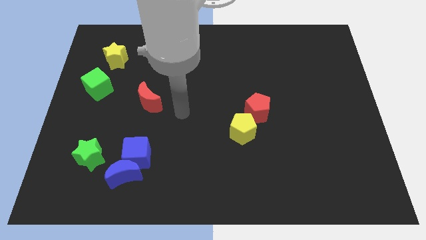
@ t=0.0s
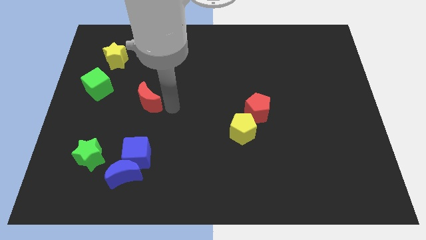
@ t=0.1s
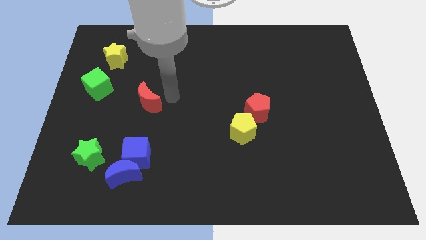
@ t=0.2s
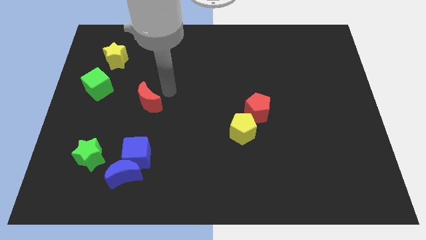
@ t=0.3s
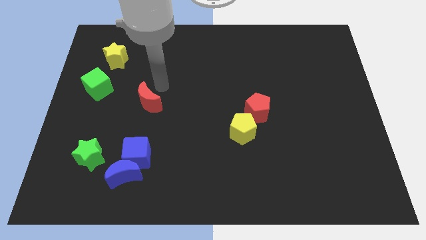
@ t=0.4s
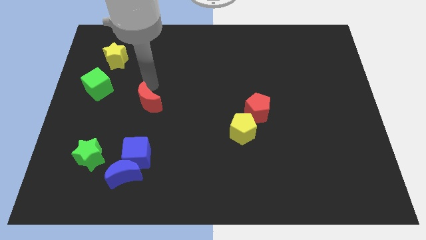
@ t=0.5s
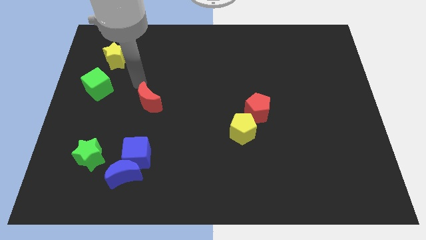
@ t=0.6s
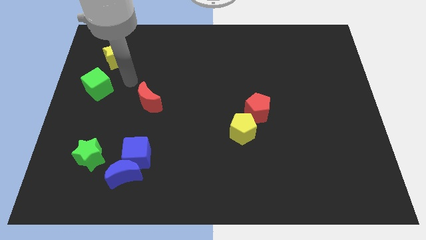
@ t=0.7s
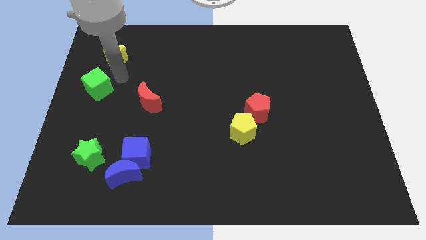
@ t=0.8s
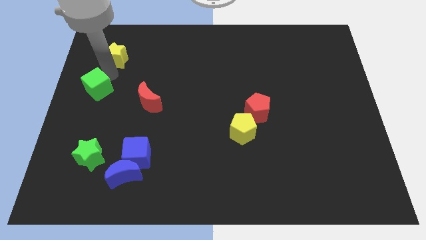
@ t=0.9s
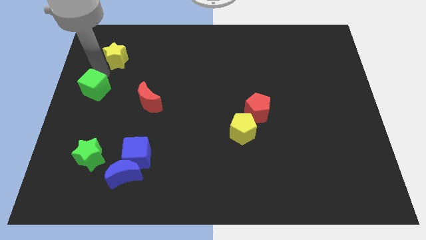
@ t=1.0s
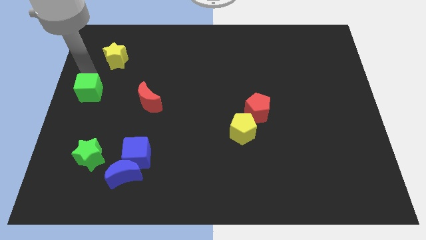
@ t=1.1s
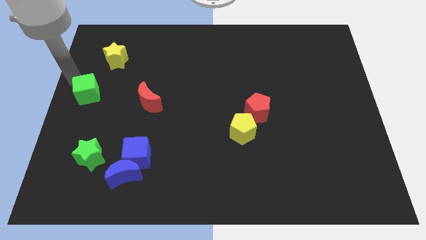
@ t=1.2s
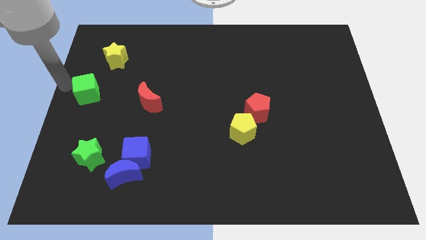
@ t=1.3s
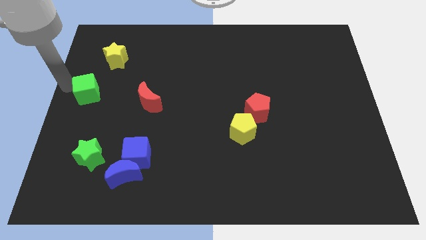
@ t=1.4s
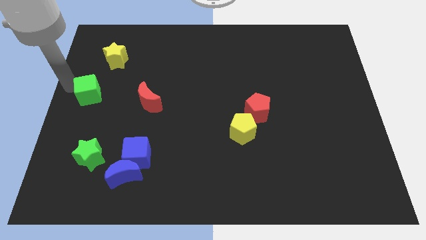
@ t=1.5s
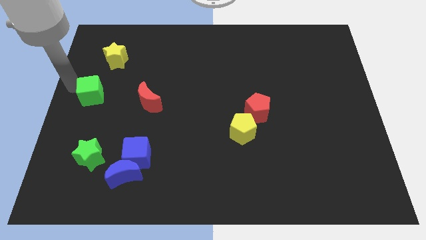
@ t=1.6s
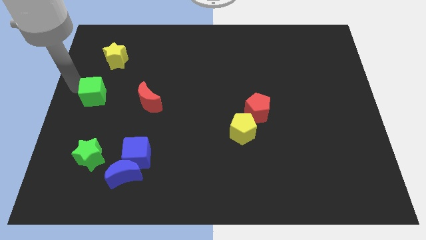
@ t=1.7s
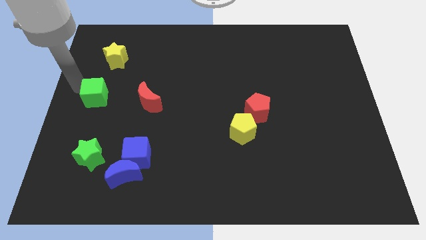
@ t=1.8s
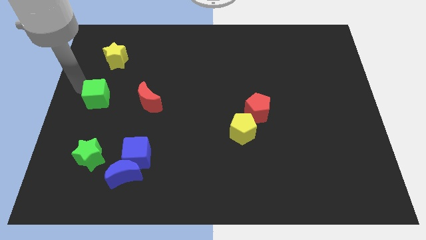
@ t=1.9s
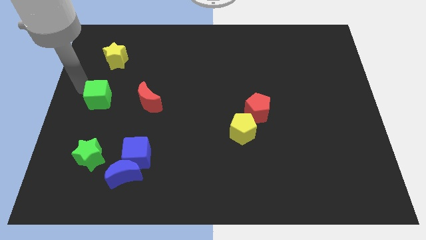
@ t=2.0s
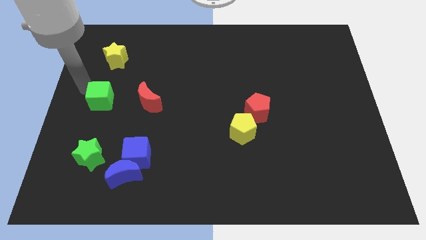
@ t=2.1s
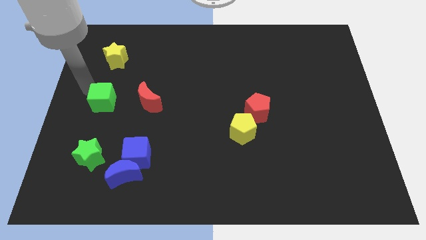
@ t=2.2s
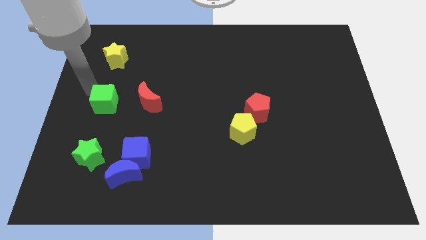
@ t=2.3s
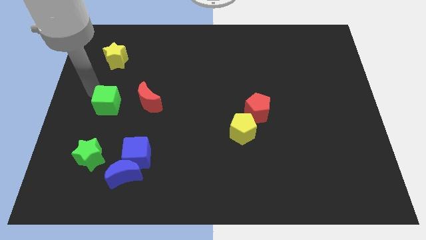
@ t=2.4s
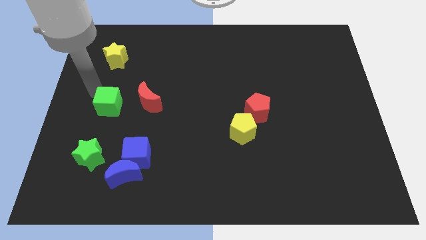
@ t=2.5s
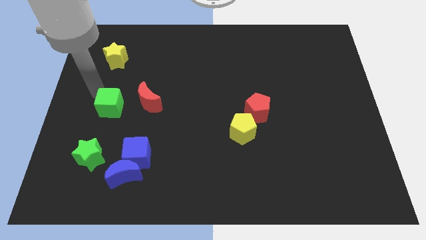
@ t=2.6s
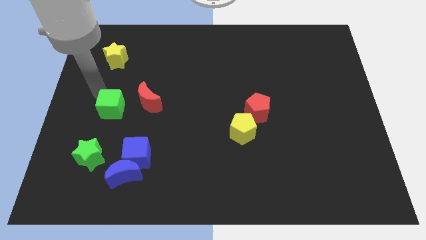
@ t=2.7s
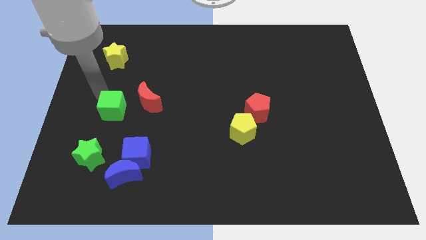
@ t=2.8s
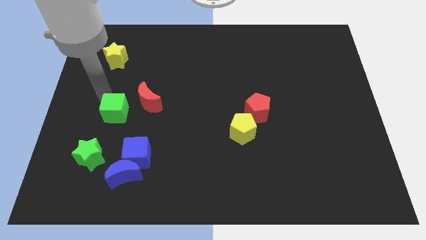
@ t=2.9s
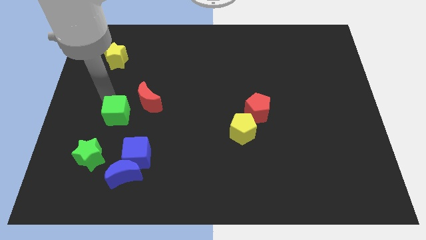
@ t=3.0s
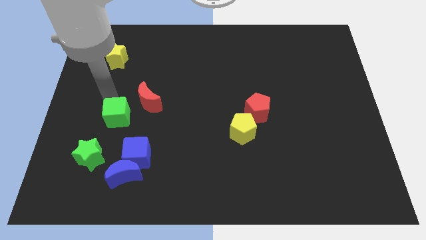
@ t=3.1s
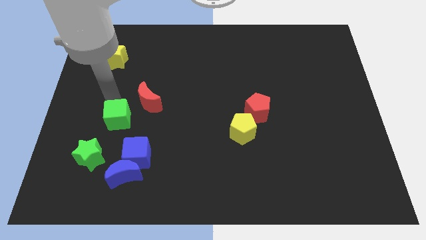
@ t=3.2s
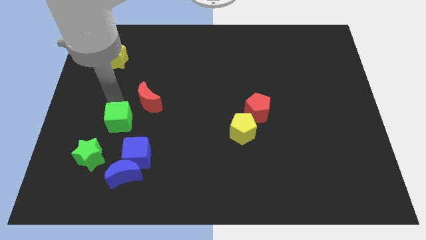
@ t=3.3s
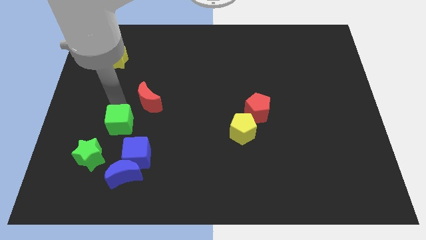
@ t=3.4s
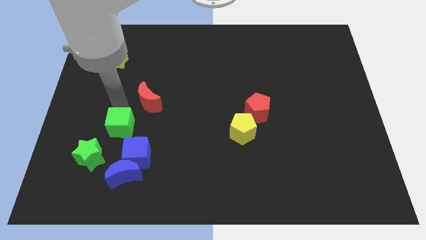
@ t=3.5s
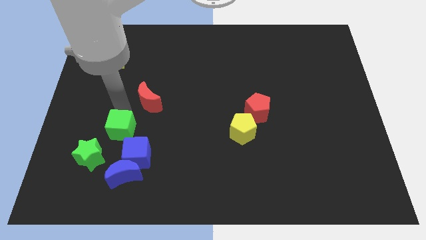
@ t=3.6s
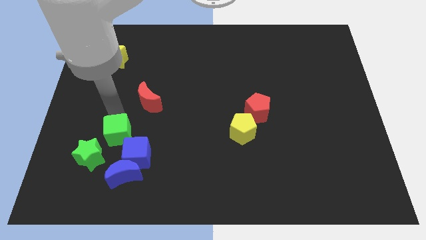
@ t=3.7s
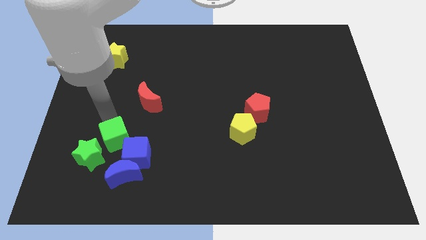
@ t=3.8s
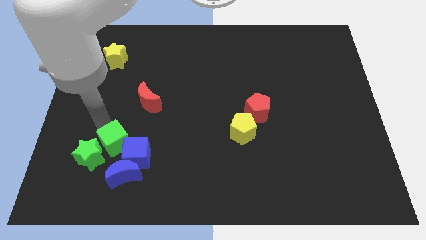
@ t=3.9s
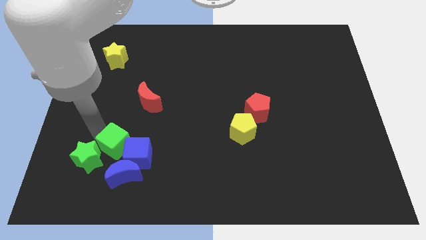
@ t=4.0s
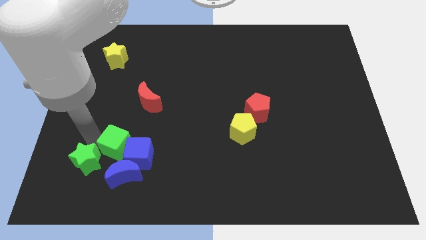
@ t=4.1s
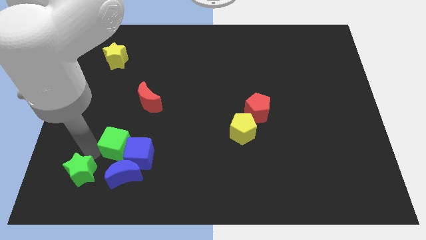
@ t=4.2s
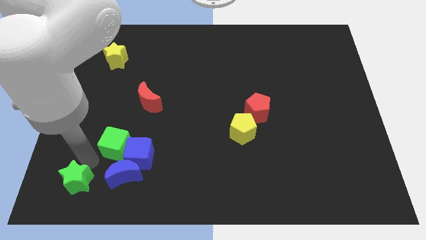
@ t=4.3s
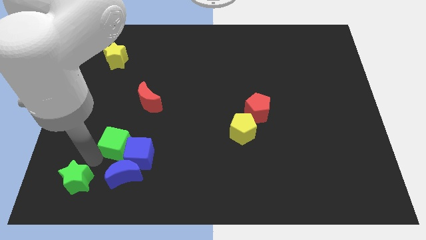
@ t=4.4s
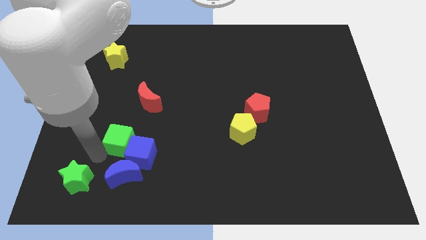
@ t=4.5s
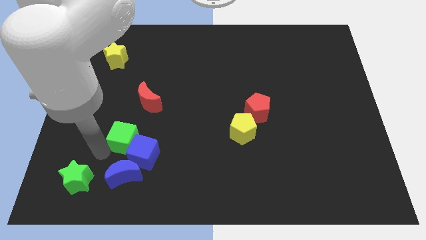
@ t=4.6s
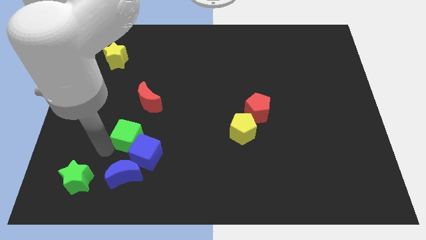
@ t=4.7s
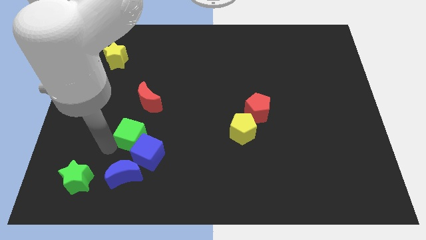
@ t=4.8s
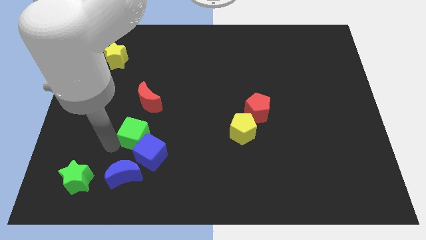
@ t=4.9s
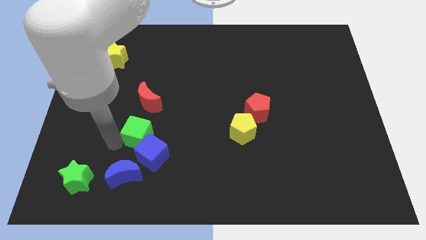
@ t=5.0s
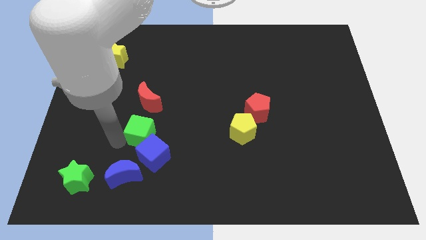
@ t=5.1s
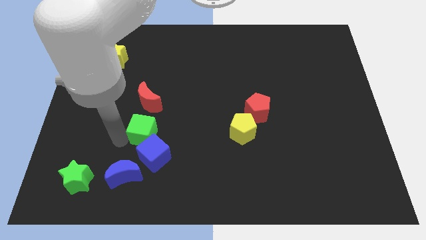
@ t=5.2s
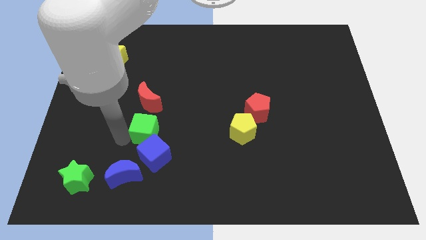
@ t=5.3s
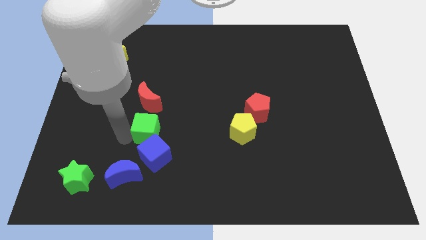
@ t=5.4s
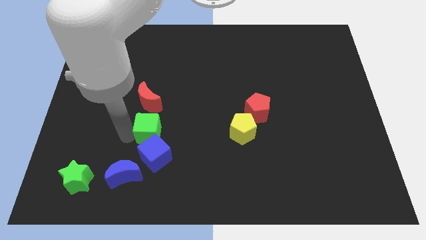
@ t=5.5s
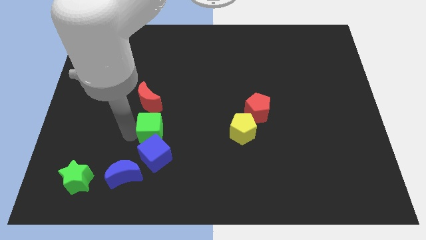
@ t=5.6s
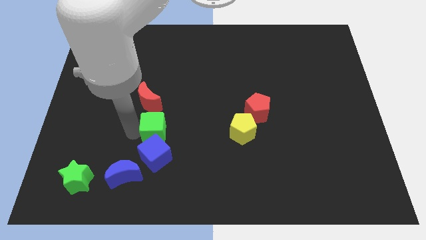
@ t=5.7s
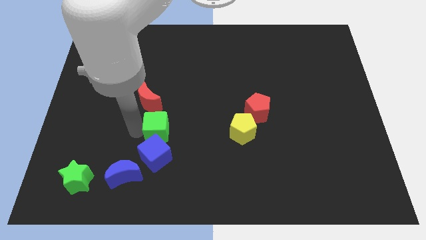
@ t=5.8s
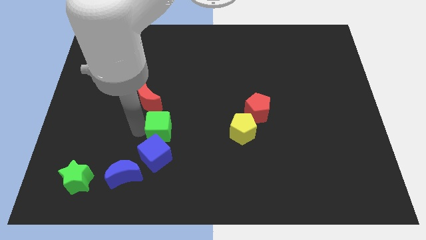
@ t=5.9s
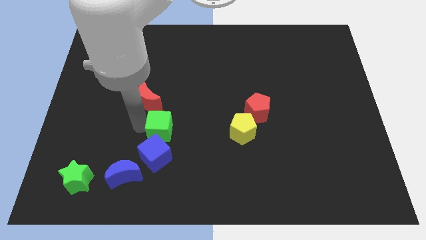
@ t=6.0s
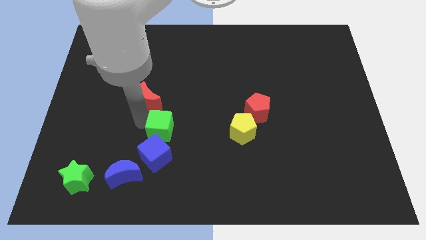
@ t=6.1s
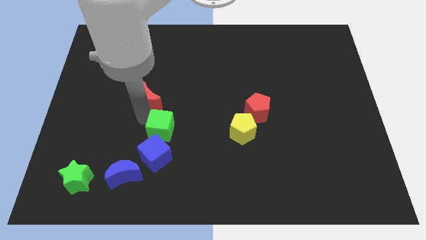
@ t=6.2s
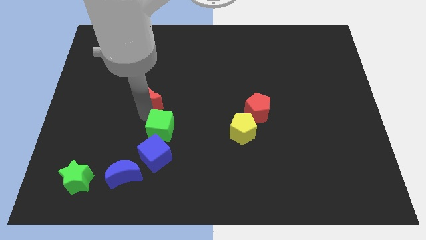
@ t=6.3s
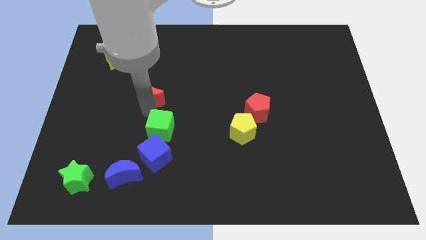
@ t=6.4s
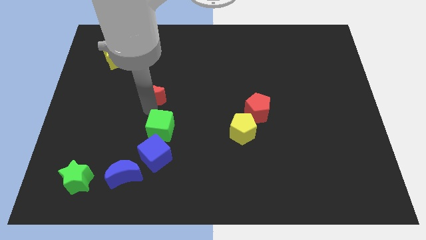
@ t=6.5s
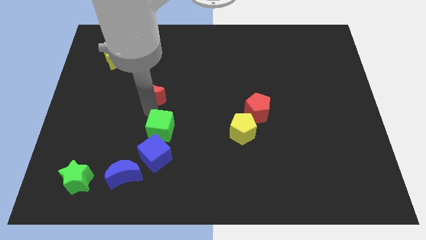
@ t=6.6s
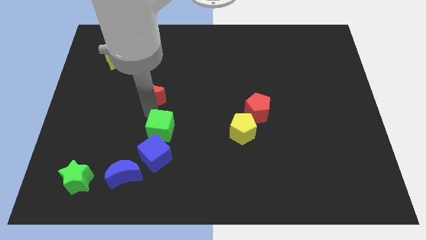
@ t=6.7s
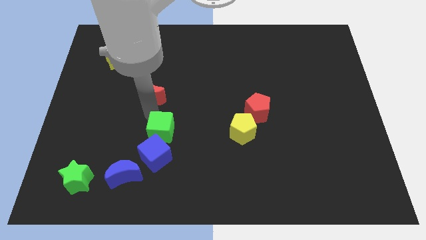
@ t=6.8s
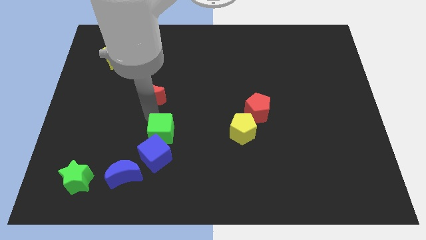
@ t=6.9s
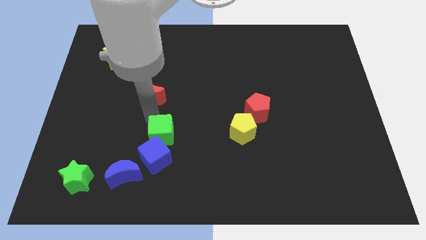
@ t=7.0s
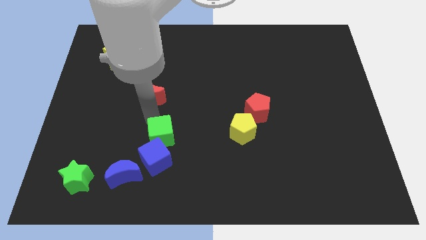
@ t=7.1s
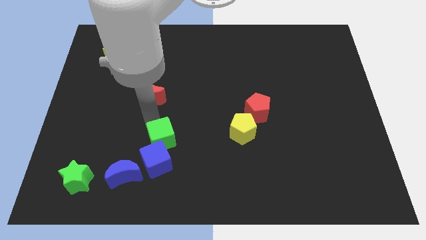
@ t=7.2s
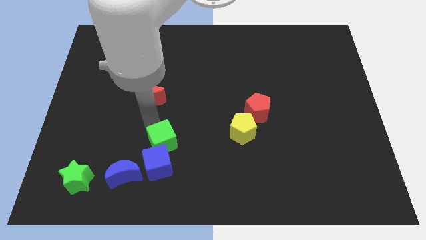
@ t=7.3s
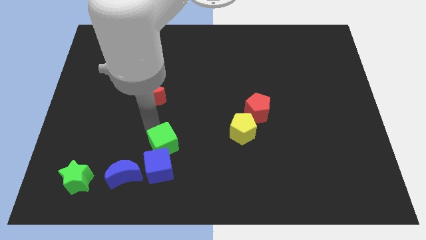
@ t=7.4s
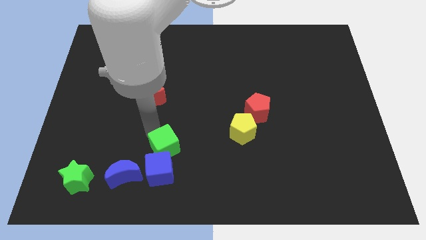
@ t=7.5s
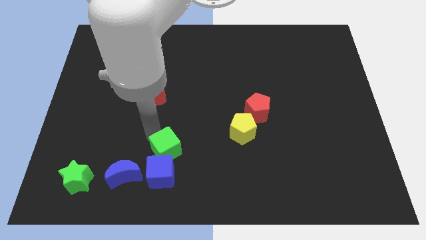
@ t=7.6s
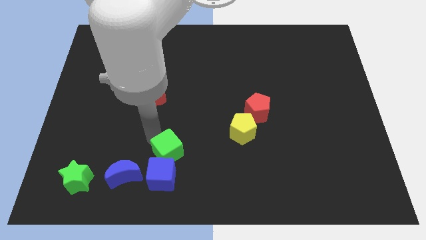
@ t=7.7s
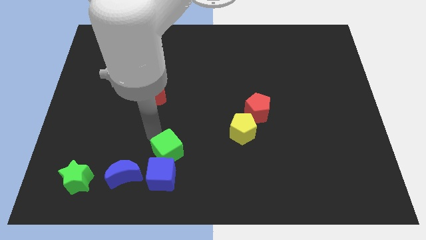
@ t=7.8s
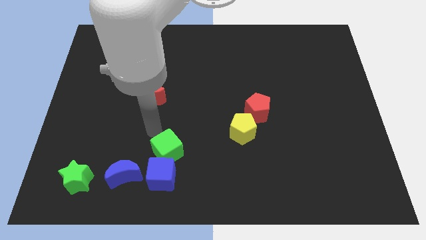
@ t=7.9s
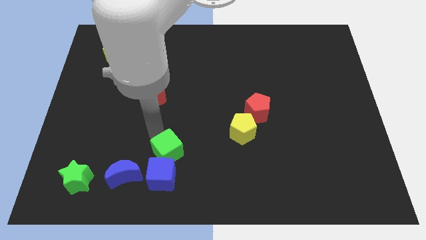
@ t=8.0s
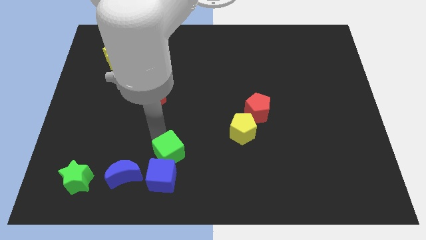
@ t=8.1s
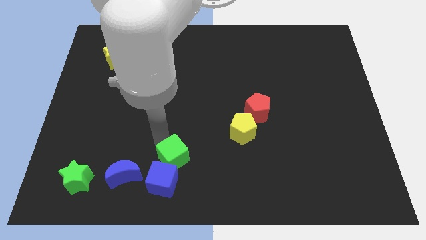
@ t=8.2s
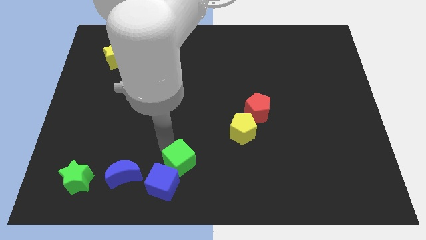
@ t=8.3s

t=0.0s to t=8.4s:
push the green cube to the bottom
